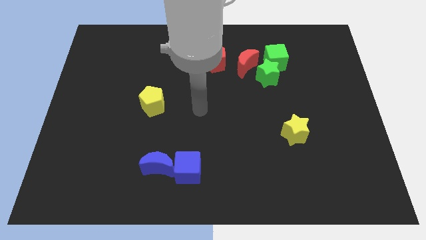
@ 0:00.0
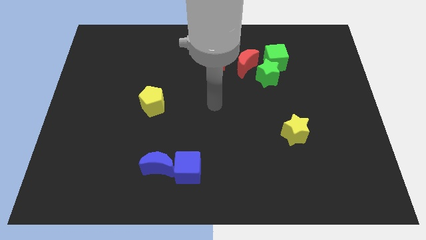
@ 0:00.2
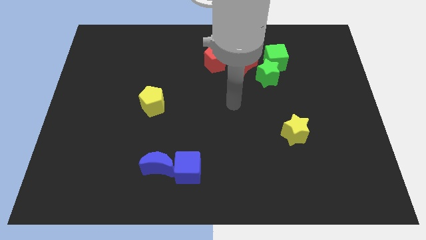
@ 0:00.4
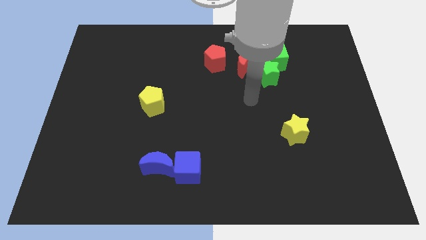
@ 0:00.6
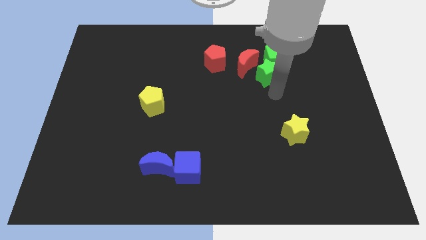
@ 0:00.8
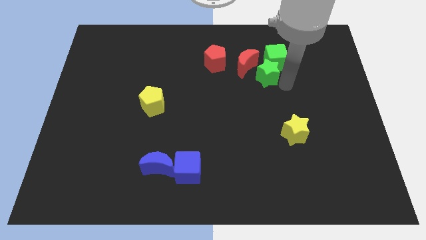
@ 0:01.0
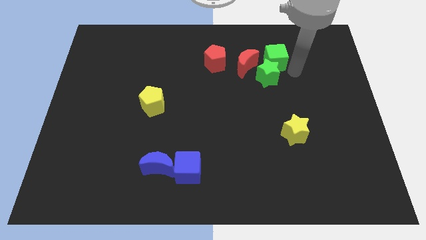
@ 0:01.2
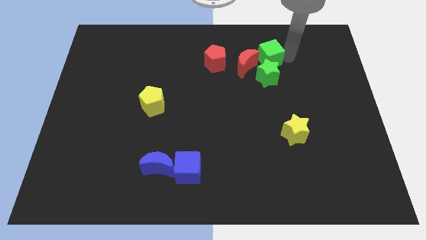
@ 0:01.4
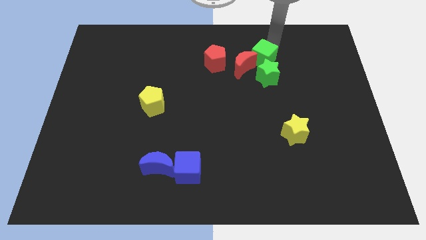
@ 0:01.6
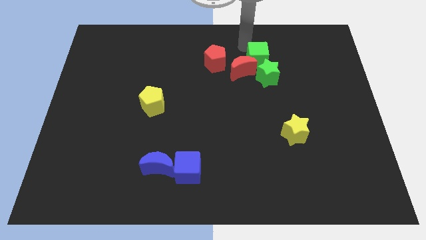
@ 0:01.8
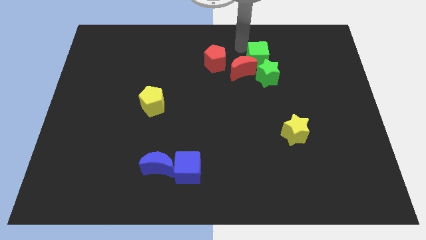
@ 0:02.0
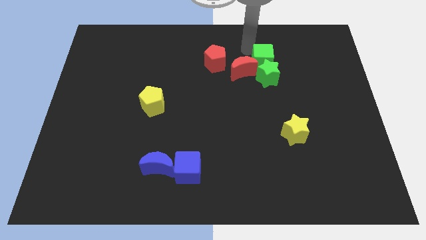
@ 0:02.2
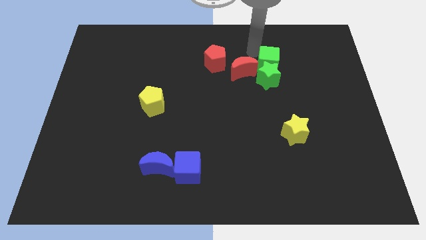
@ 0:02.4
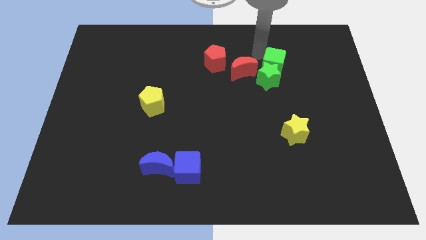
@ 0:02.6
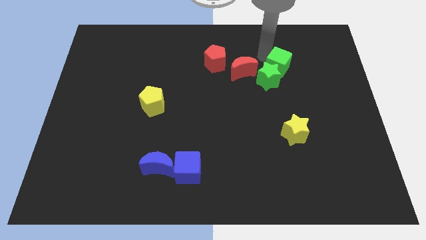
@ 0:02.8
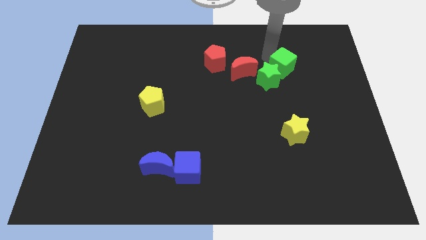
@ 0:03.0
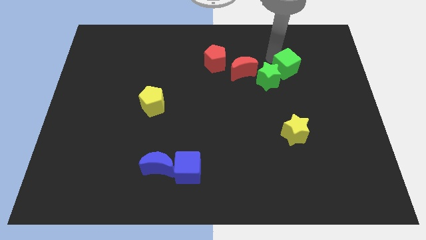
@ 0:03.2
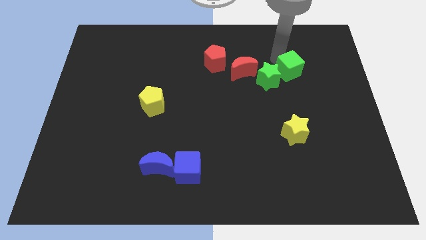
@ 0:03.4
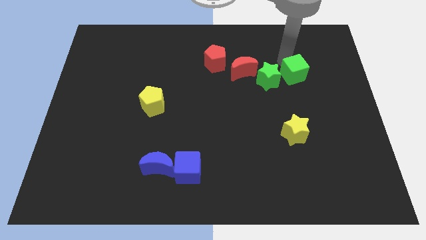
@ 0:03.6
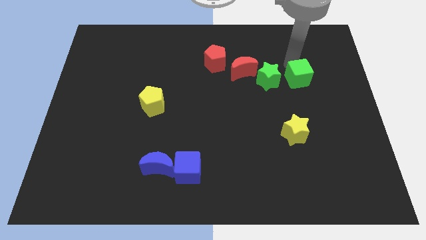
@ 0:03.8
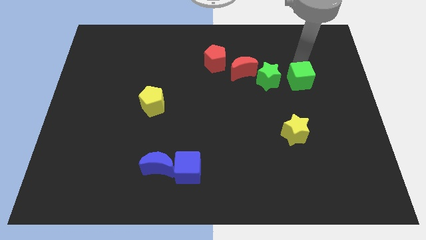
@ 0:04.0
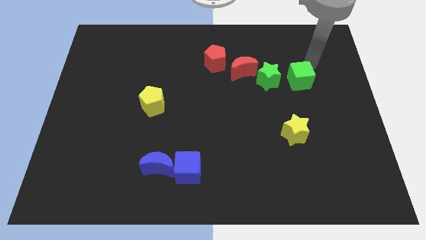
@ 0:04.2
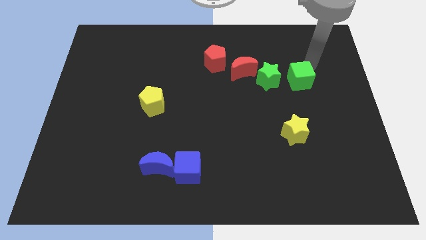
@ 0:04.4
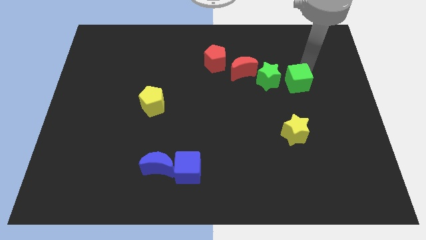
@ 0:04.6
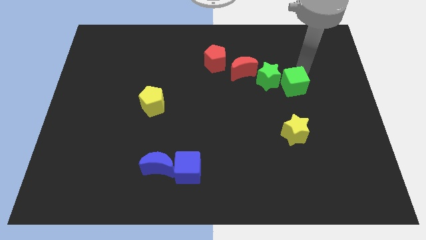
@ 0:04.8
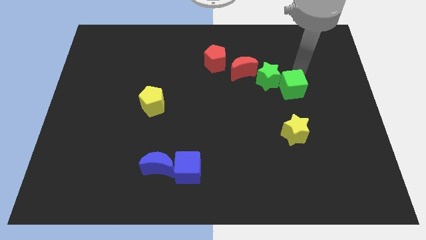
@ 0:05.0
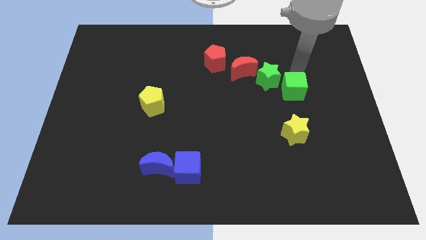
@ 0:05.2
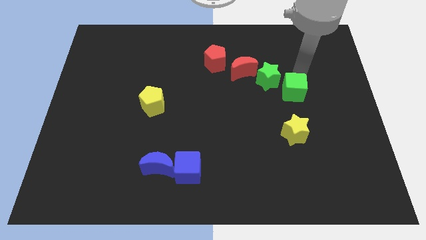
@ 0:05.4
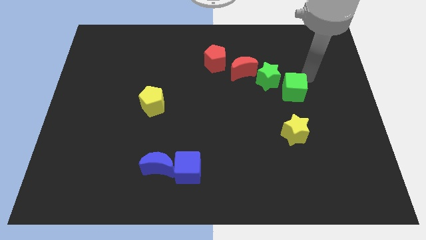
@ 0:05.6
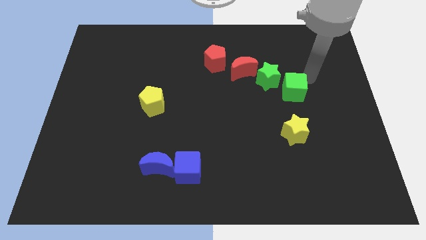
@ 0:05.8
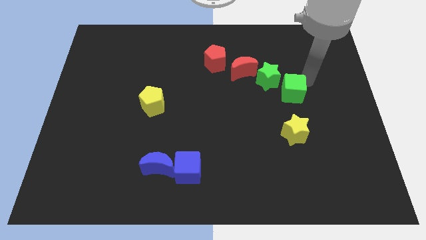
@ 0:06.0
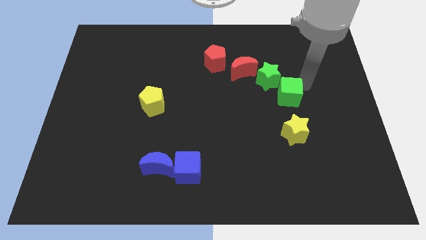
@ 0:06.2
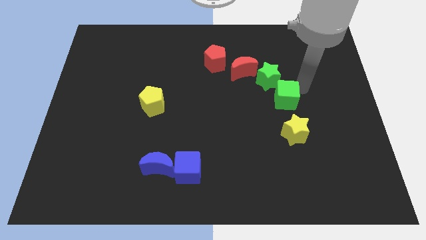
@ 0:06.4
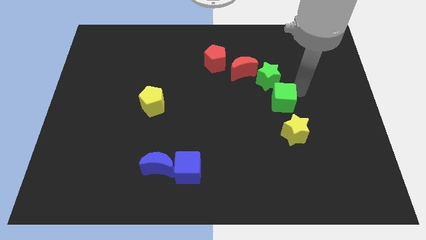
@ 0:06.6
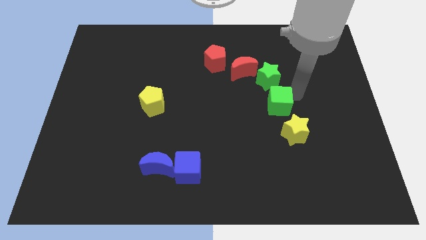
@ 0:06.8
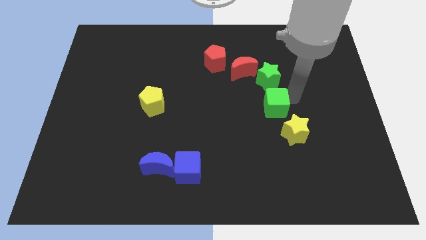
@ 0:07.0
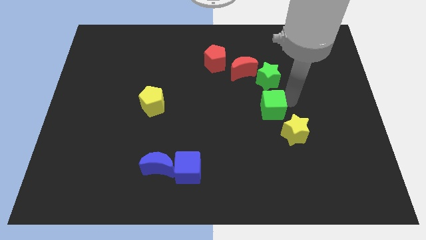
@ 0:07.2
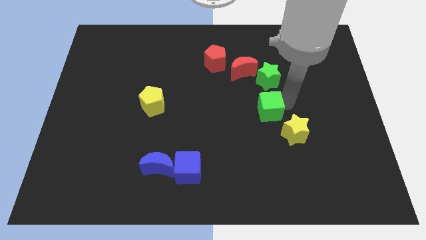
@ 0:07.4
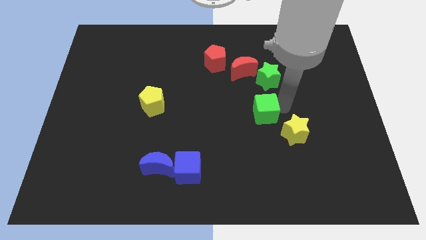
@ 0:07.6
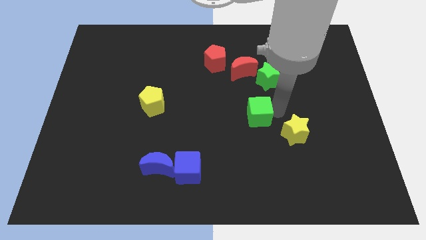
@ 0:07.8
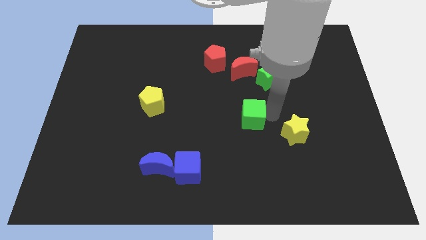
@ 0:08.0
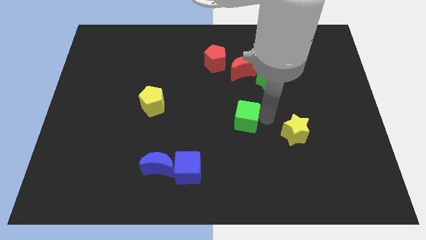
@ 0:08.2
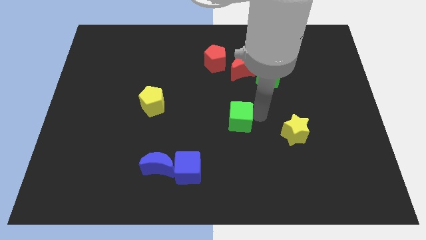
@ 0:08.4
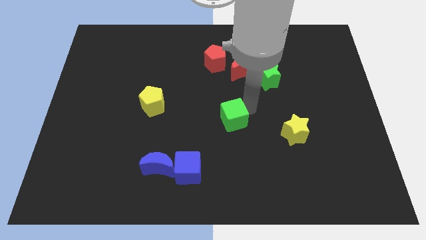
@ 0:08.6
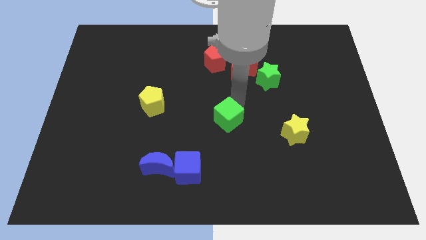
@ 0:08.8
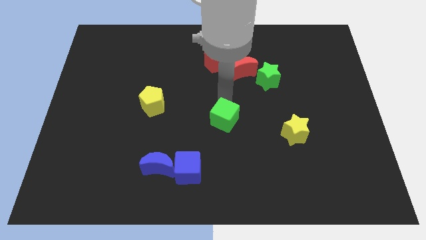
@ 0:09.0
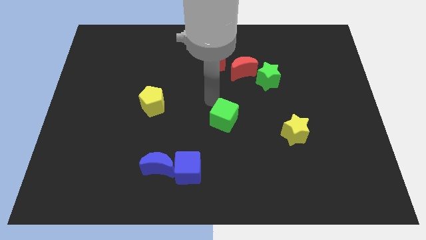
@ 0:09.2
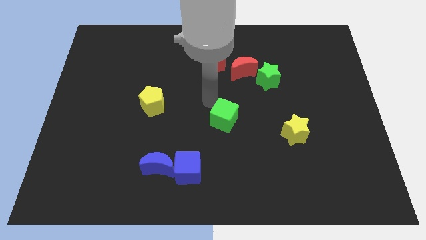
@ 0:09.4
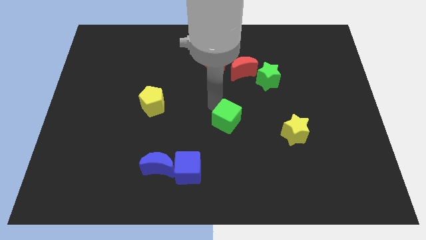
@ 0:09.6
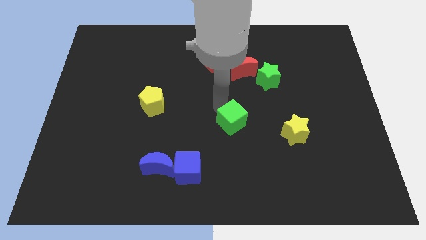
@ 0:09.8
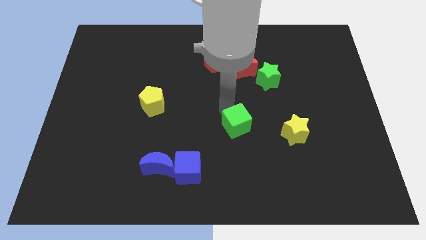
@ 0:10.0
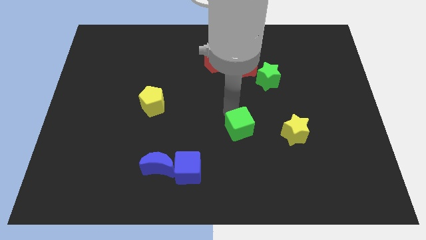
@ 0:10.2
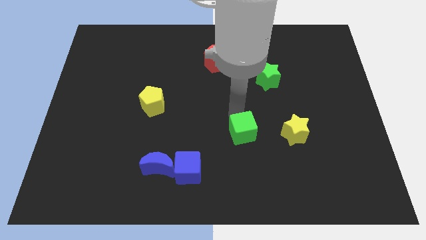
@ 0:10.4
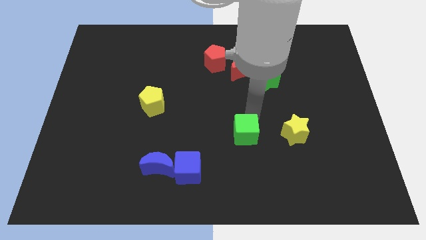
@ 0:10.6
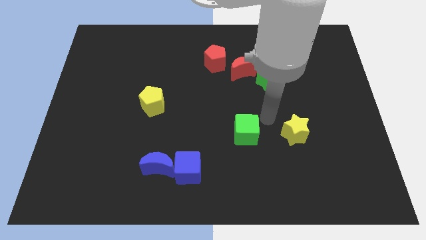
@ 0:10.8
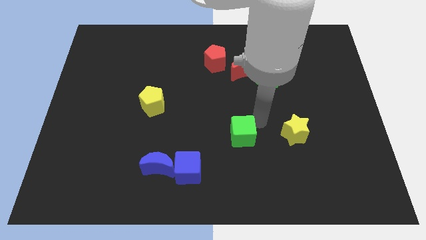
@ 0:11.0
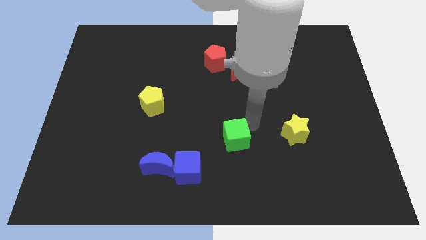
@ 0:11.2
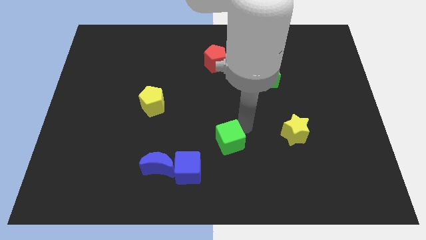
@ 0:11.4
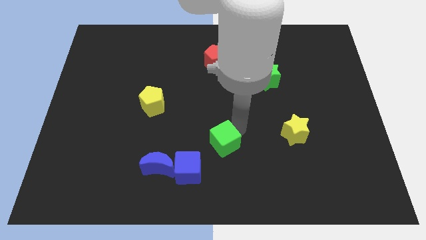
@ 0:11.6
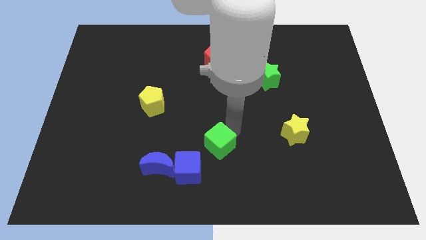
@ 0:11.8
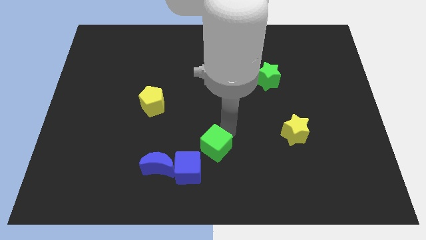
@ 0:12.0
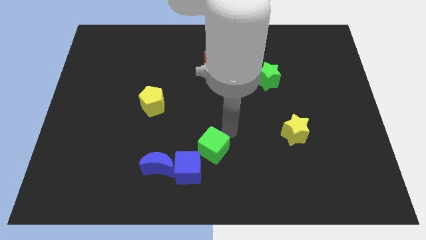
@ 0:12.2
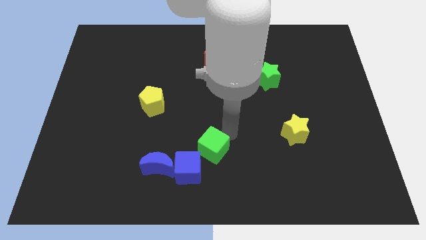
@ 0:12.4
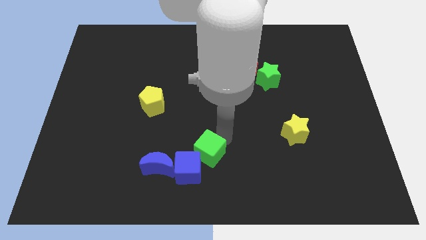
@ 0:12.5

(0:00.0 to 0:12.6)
push the green cube next to the blue cube
